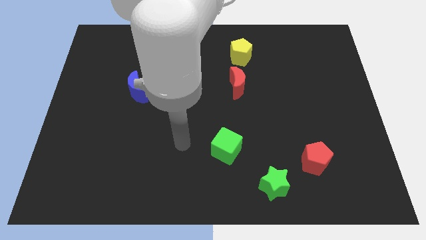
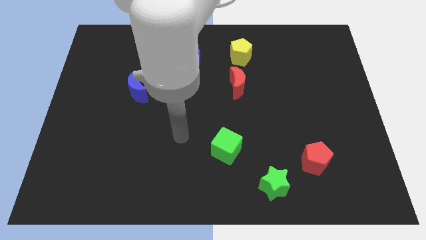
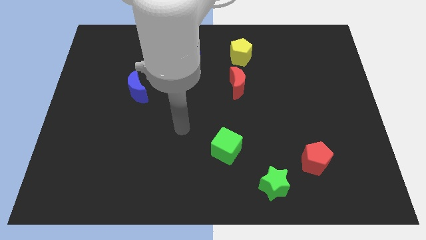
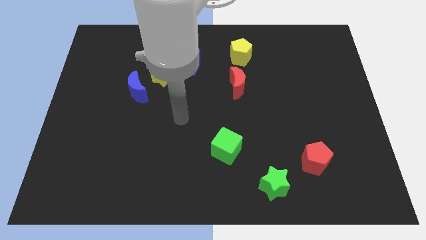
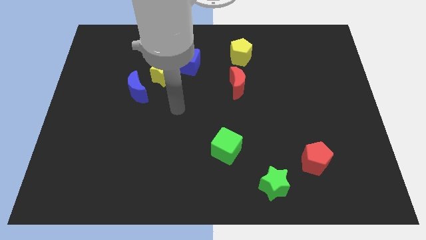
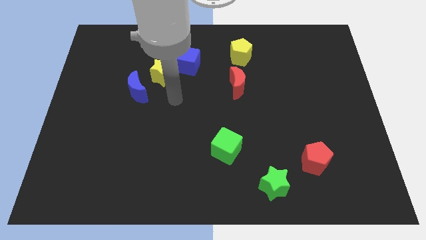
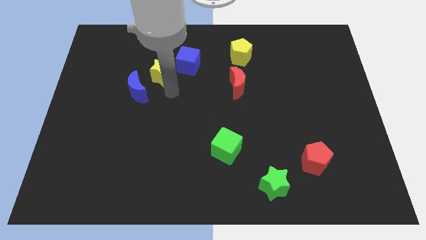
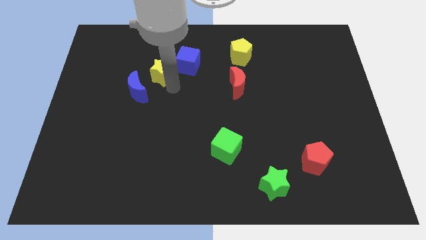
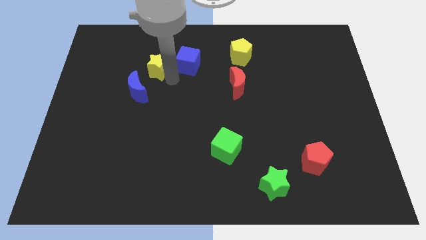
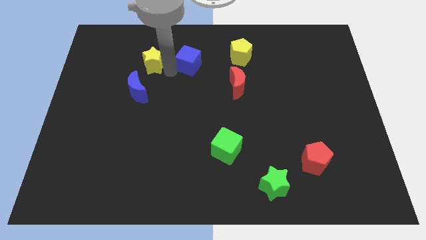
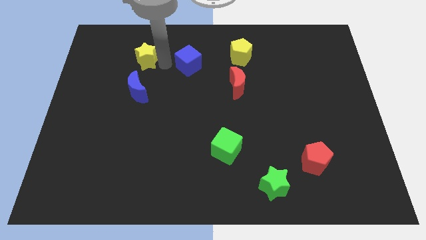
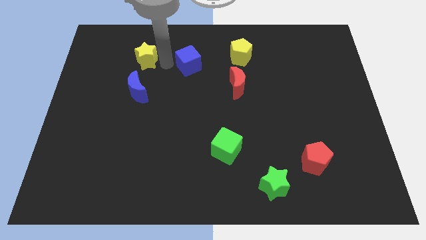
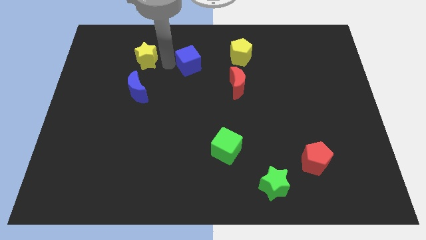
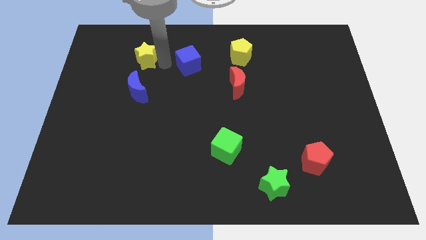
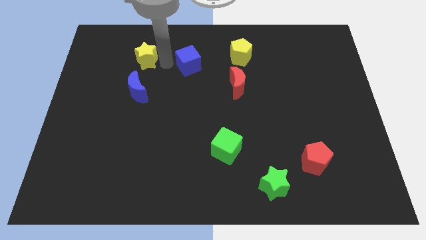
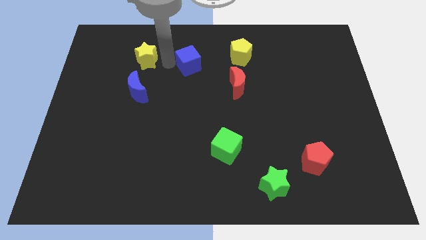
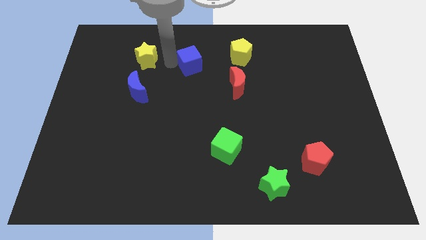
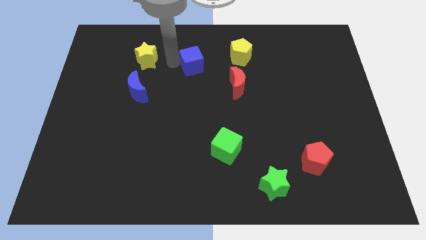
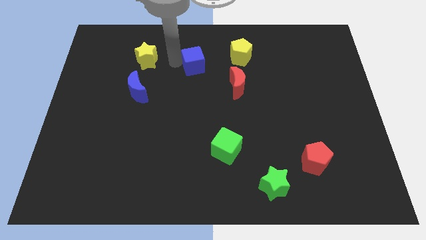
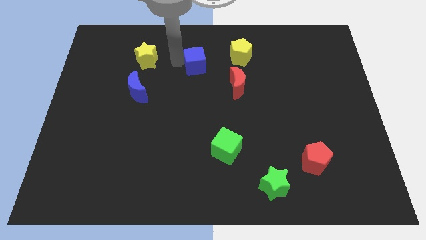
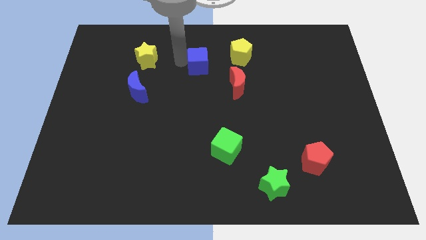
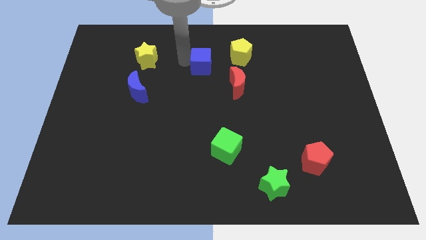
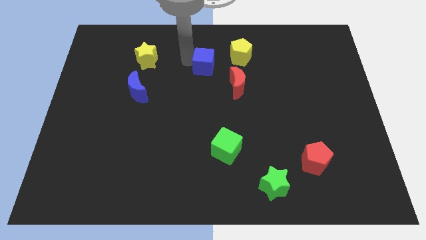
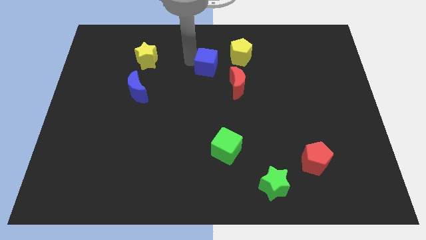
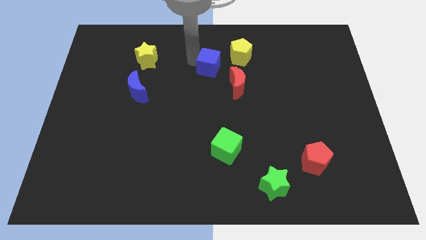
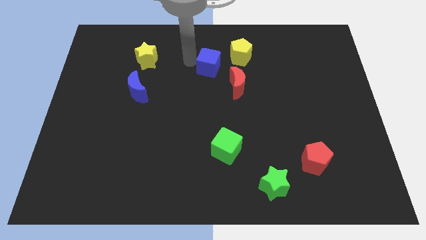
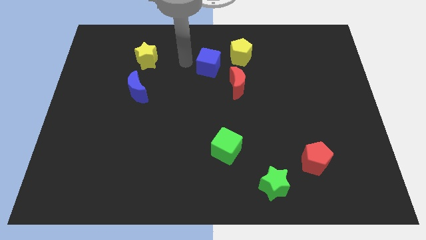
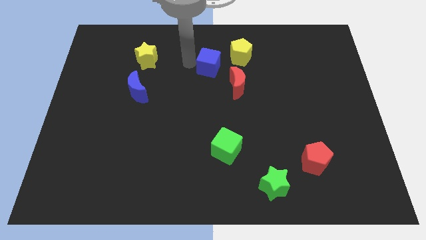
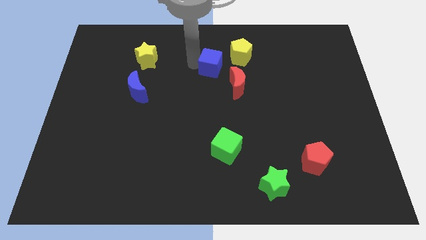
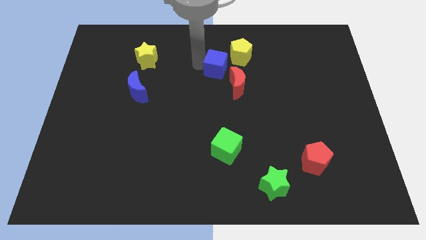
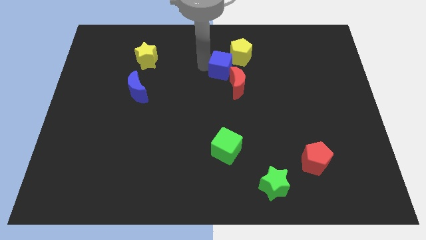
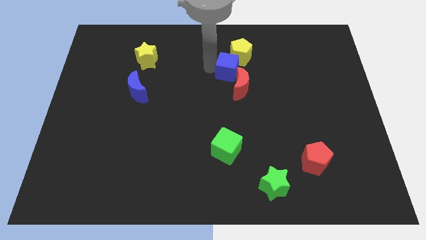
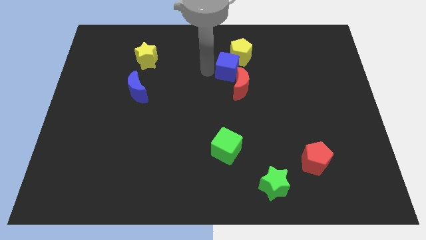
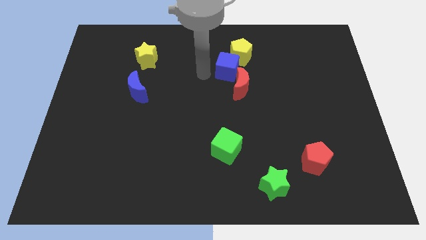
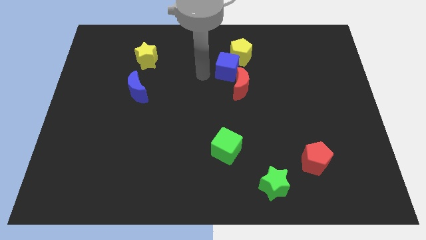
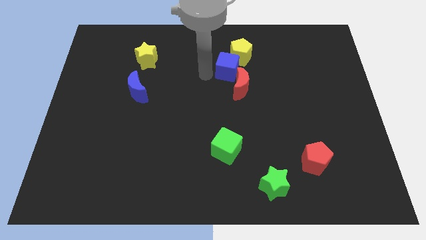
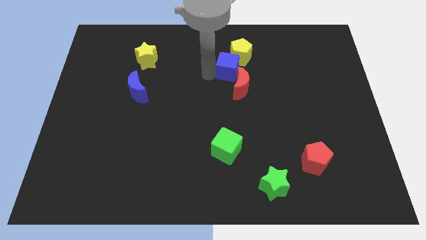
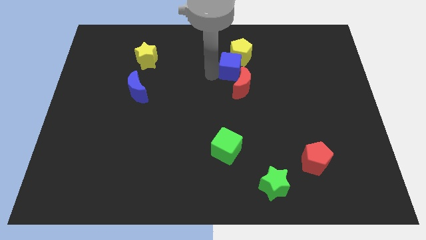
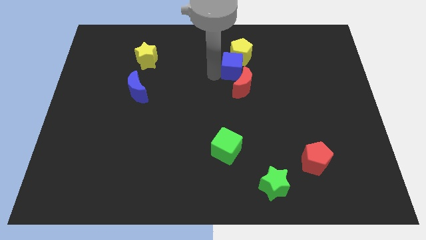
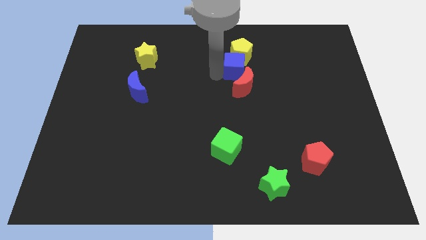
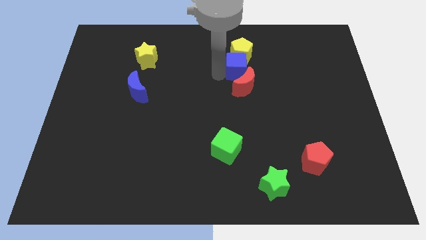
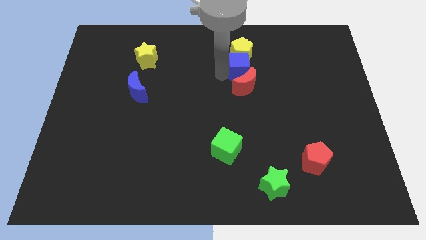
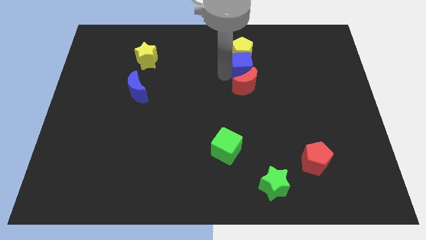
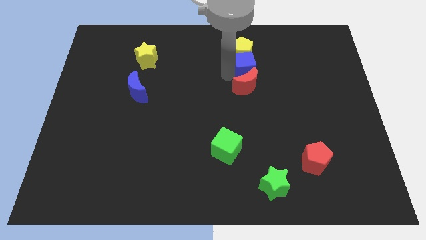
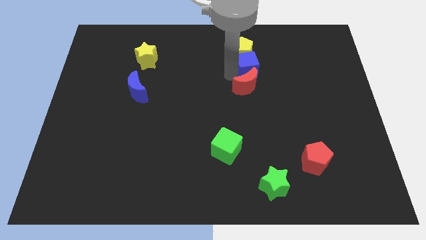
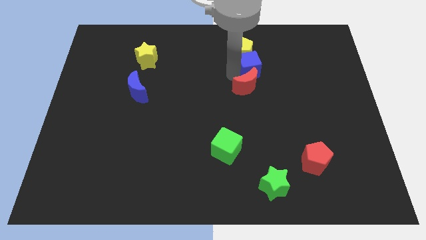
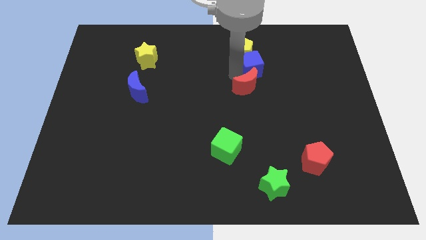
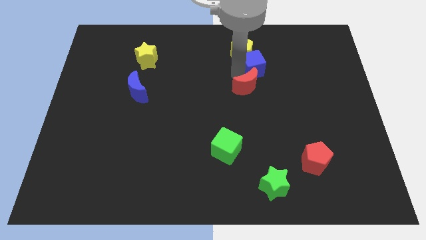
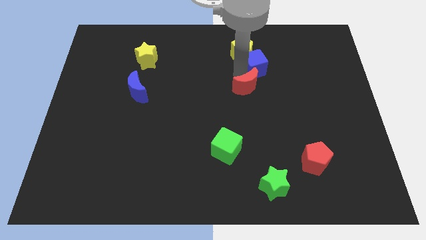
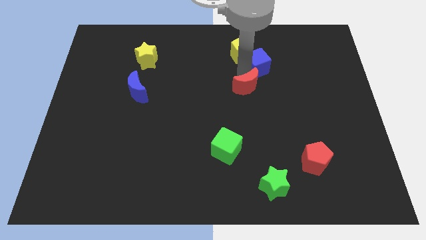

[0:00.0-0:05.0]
push the blue cube right of the yellow pentagon

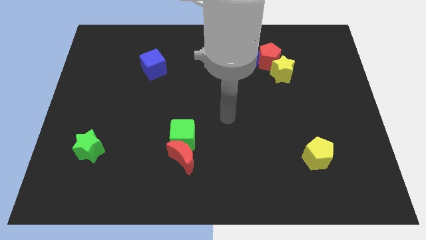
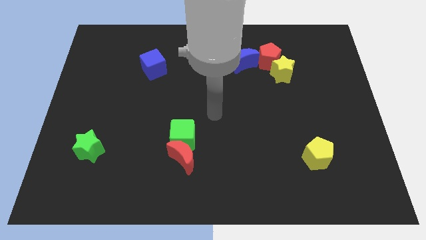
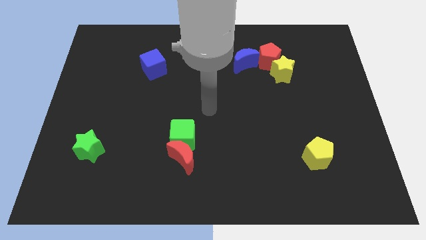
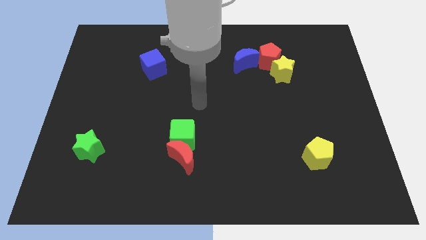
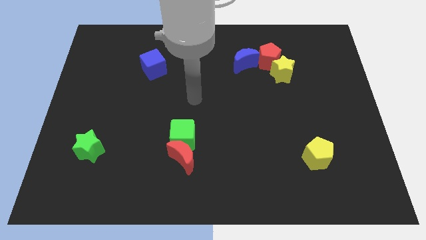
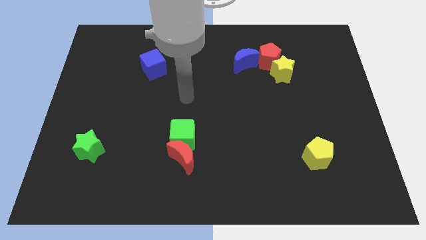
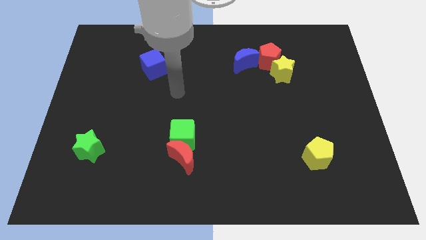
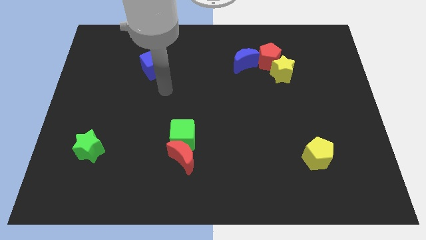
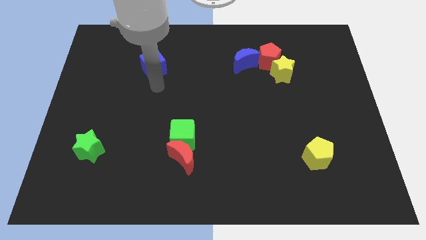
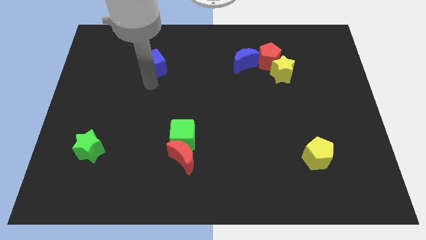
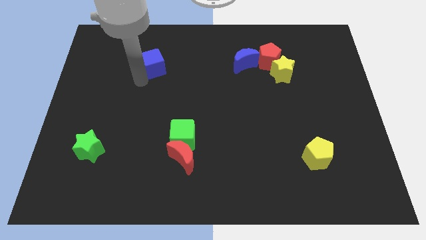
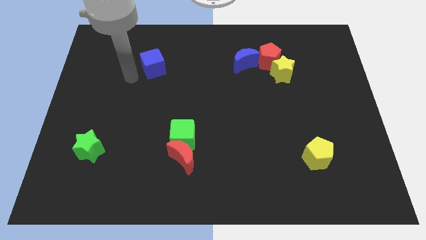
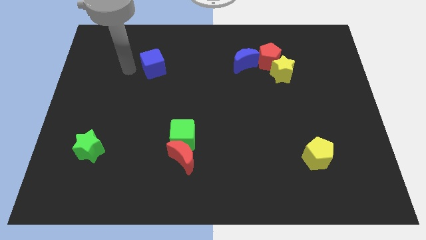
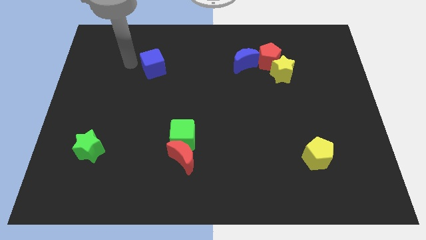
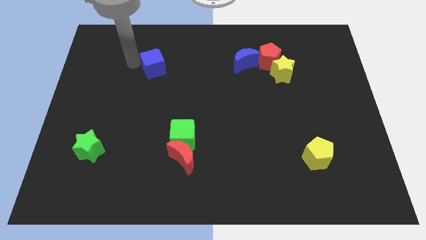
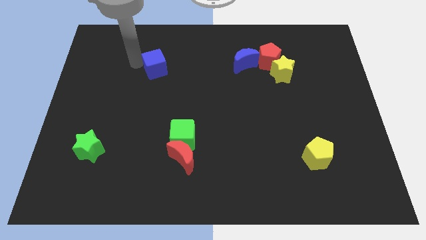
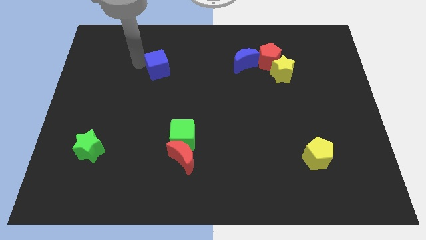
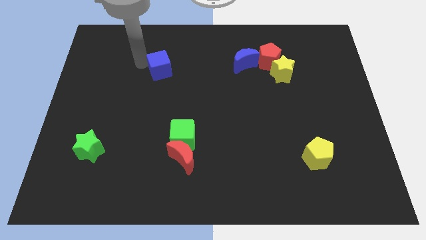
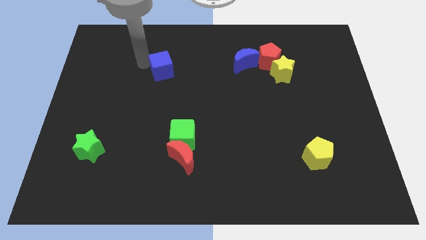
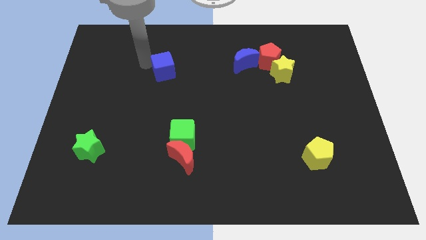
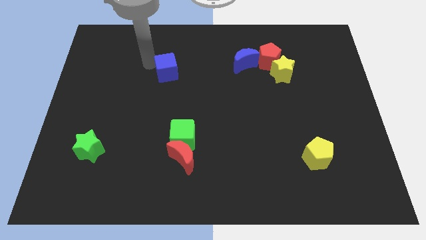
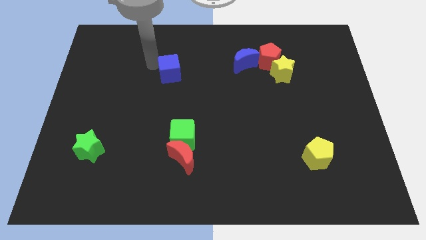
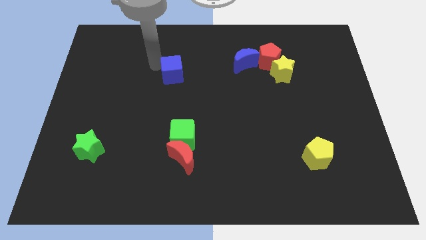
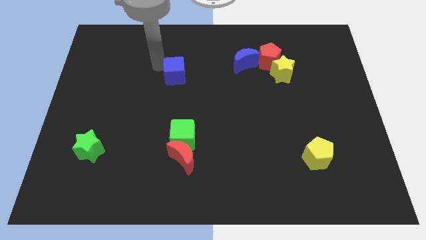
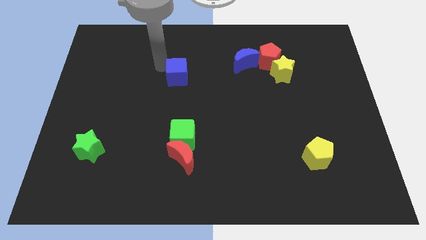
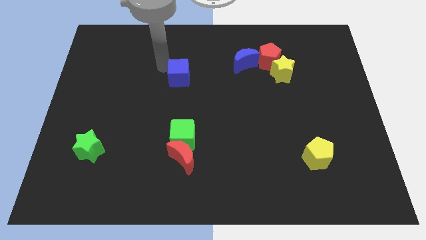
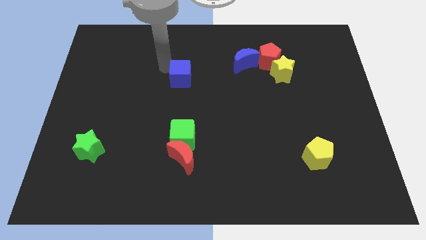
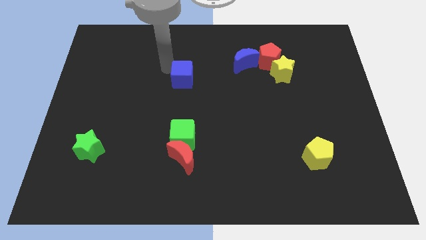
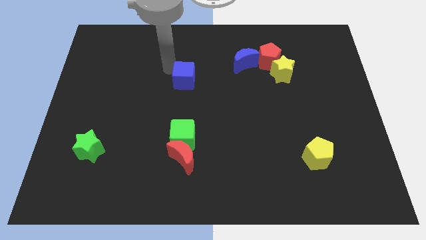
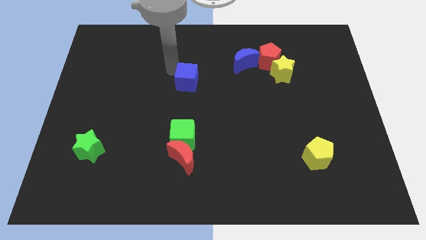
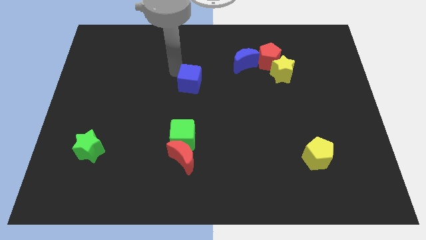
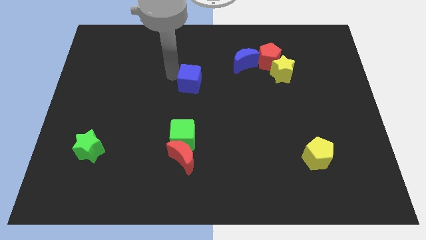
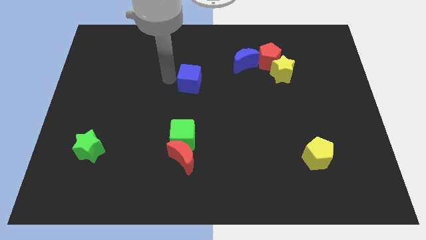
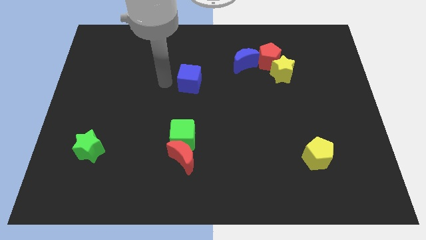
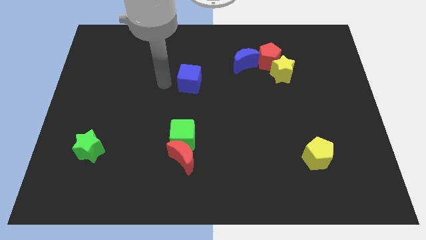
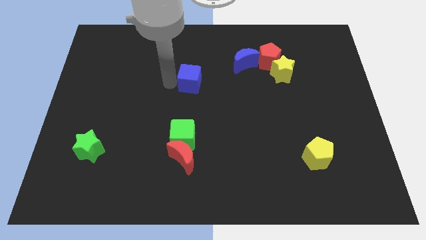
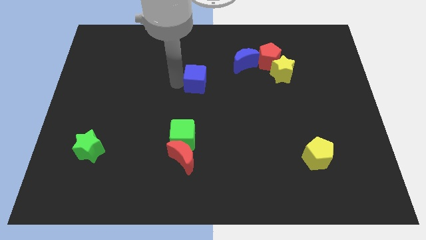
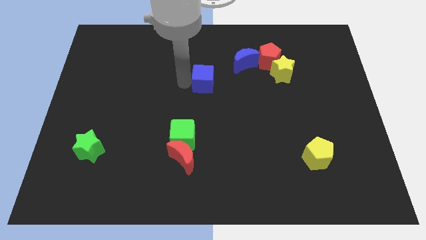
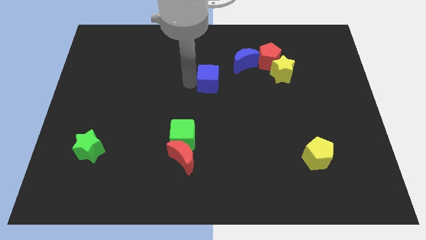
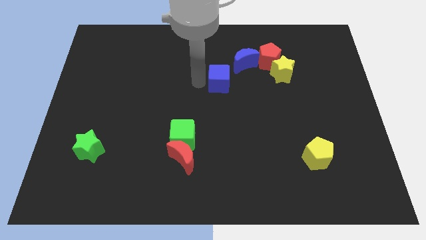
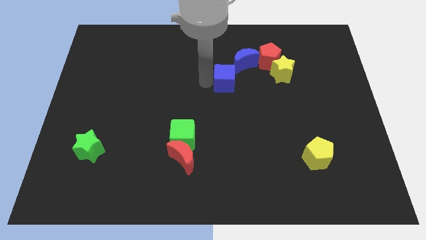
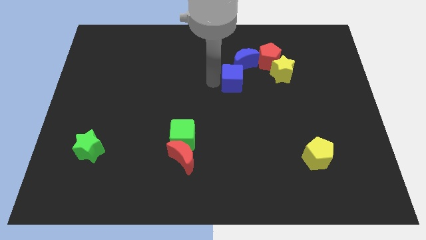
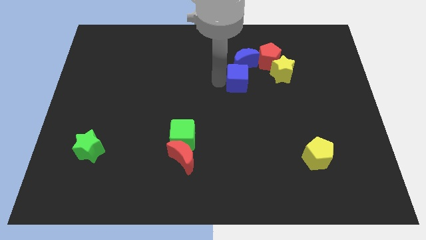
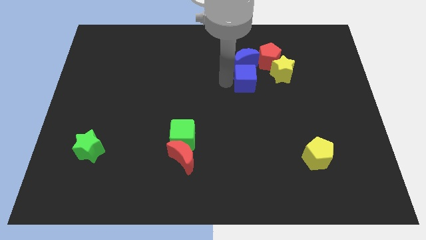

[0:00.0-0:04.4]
put the blue cube to the bottom right side of the blue moon
